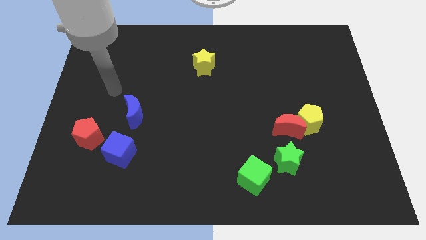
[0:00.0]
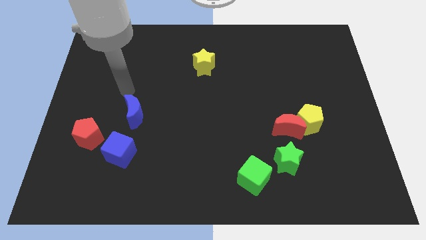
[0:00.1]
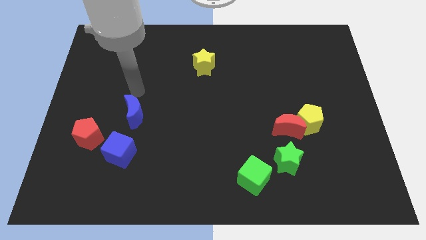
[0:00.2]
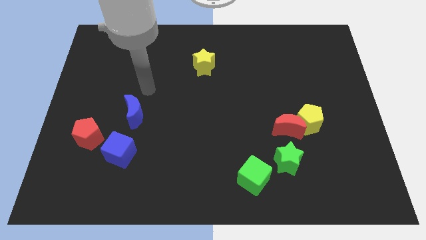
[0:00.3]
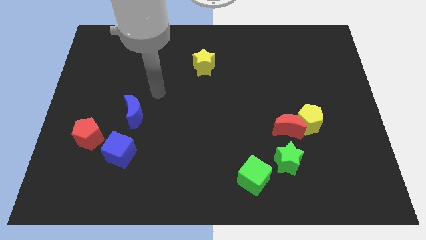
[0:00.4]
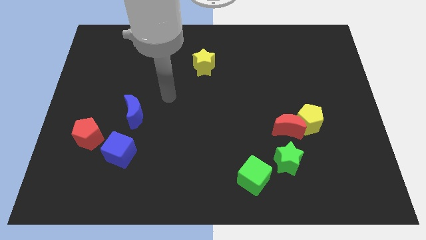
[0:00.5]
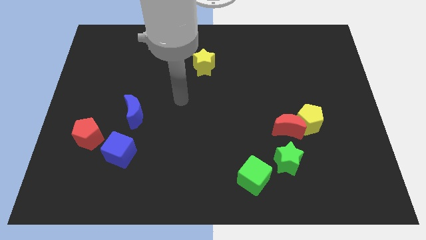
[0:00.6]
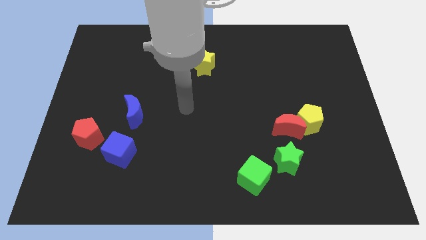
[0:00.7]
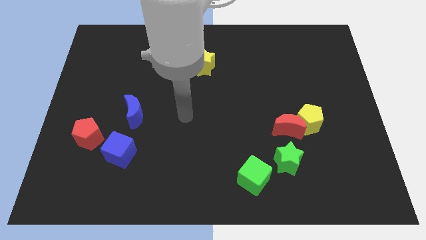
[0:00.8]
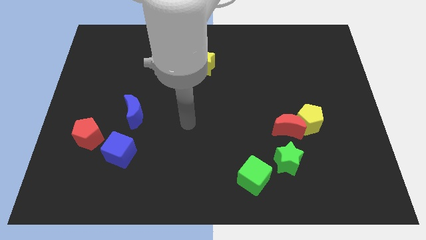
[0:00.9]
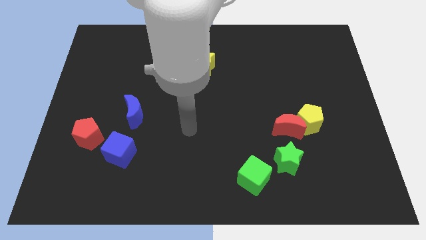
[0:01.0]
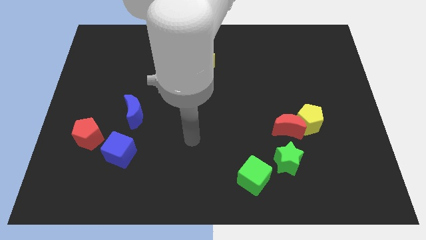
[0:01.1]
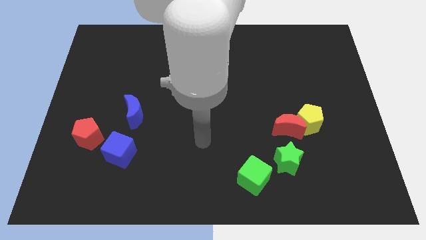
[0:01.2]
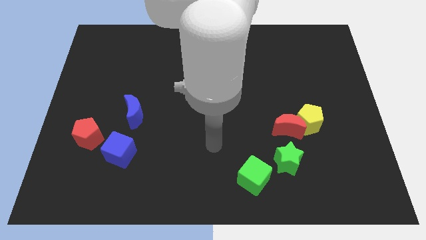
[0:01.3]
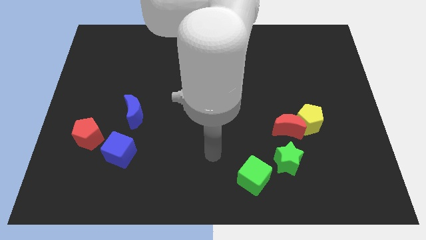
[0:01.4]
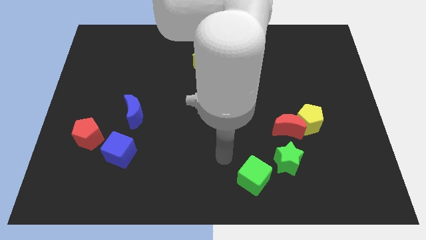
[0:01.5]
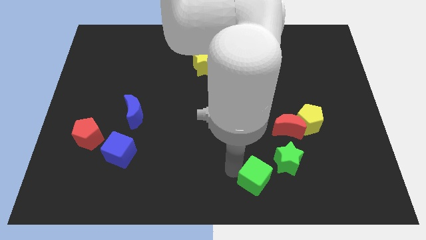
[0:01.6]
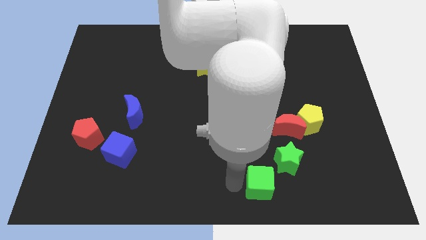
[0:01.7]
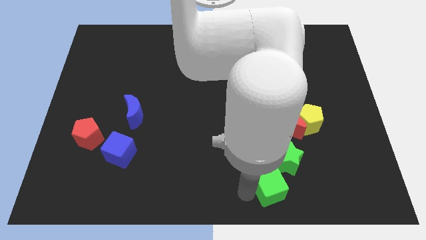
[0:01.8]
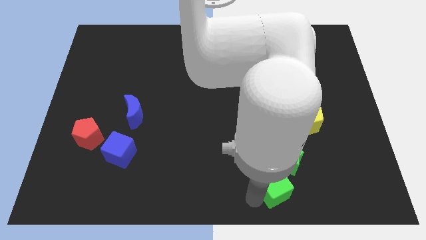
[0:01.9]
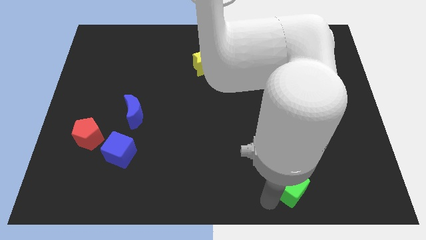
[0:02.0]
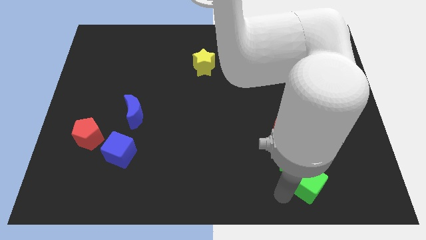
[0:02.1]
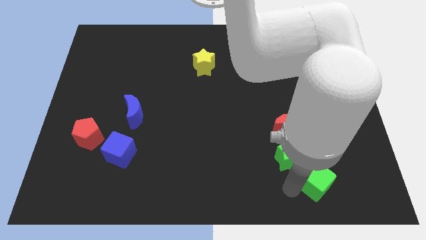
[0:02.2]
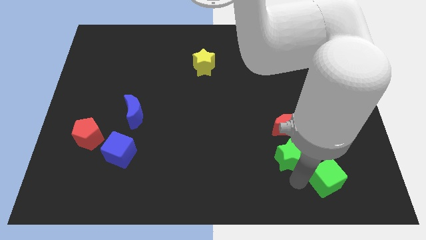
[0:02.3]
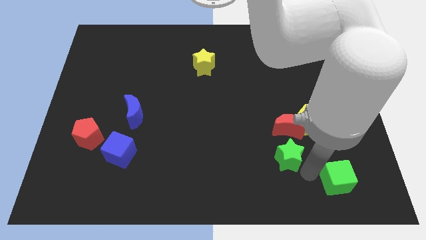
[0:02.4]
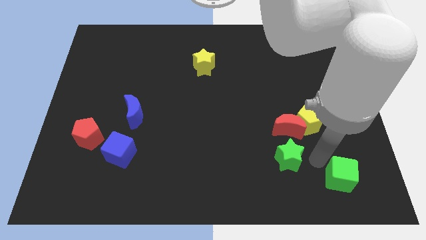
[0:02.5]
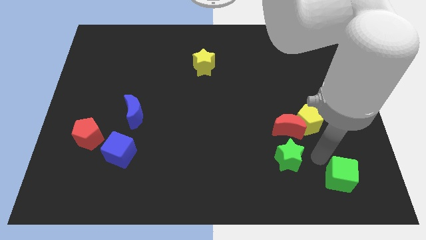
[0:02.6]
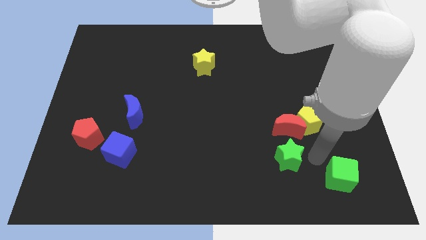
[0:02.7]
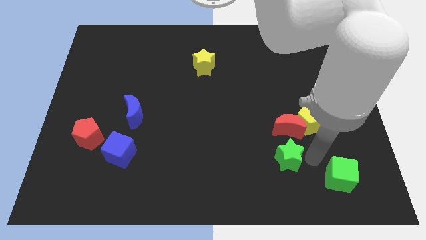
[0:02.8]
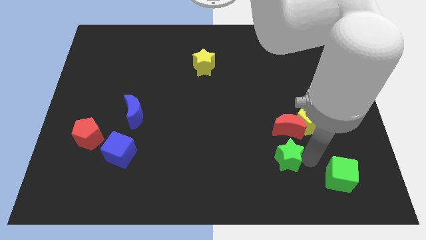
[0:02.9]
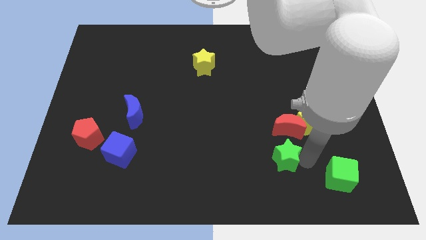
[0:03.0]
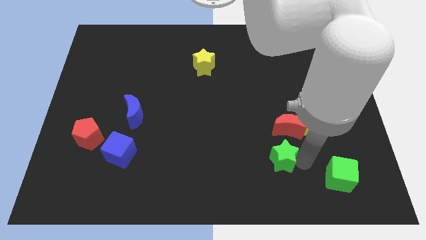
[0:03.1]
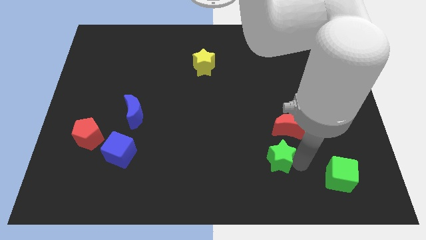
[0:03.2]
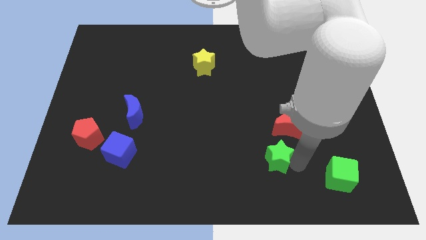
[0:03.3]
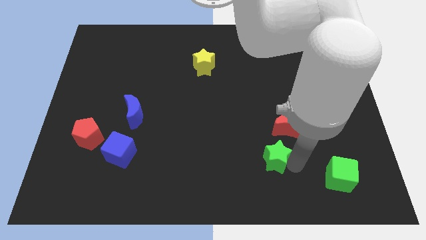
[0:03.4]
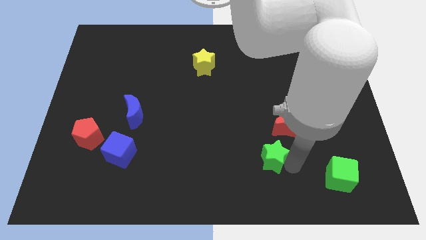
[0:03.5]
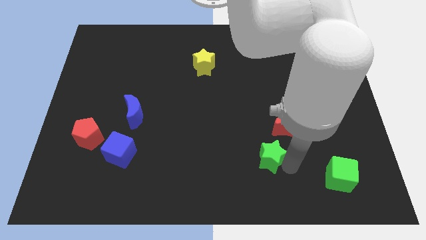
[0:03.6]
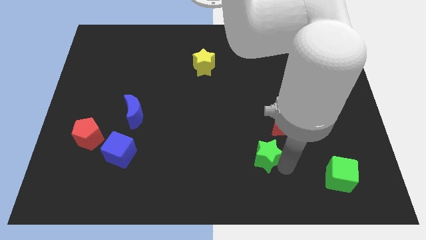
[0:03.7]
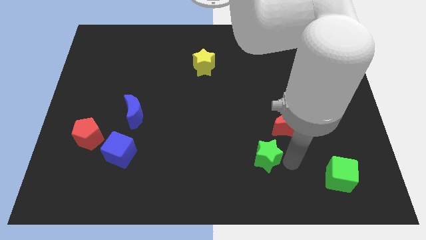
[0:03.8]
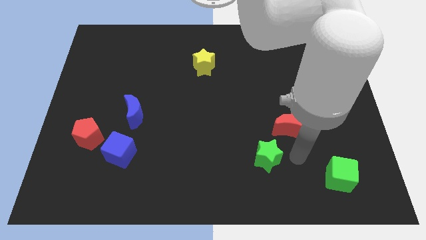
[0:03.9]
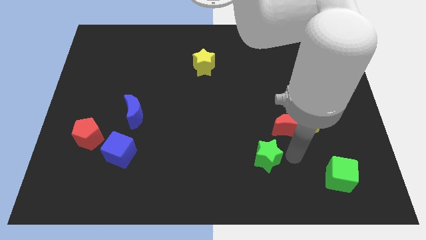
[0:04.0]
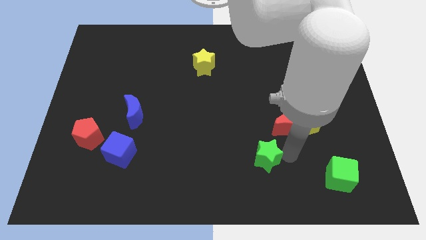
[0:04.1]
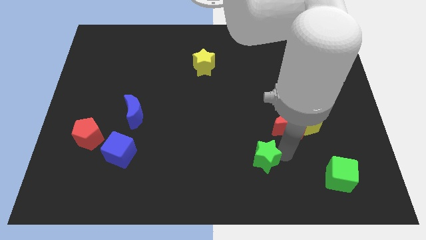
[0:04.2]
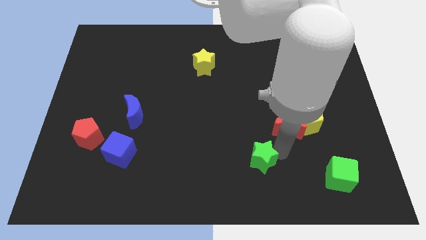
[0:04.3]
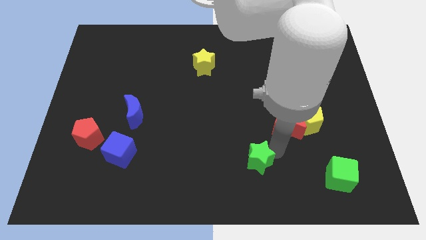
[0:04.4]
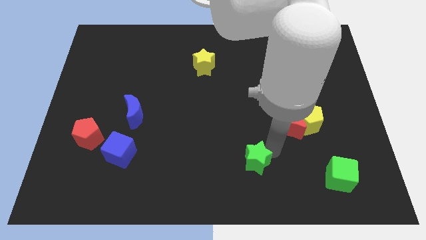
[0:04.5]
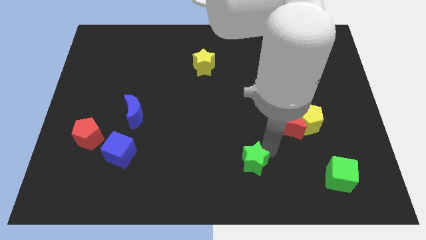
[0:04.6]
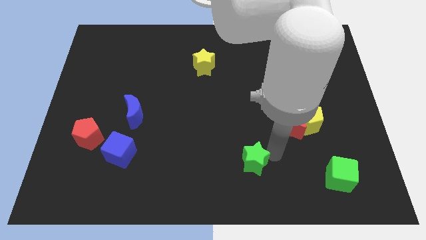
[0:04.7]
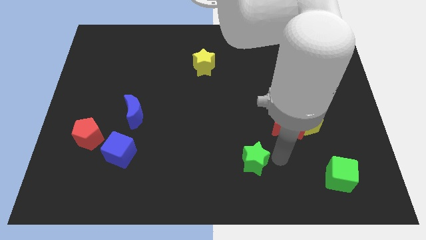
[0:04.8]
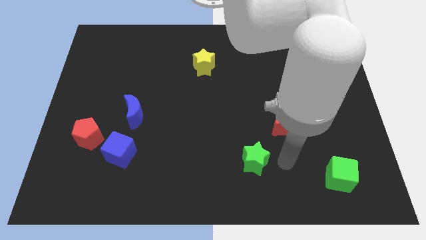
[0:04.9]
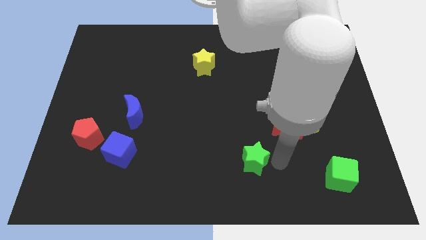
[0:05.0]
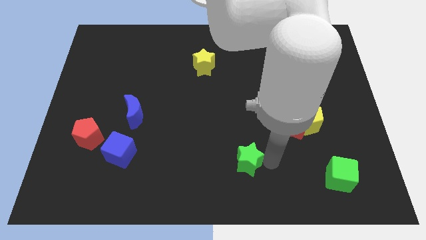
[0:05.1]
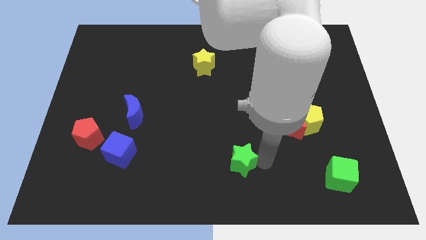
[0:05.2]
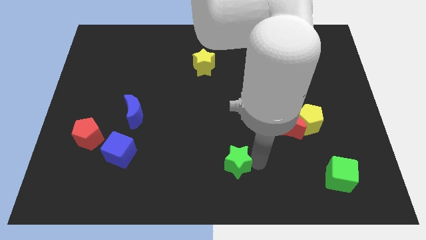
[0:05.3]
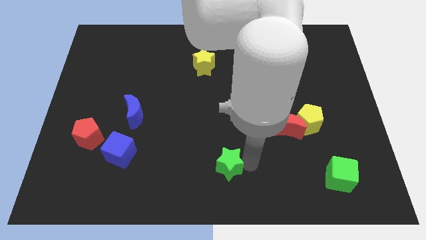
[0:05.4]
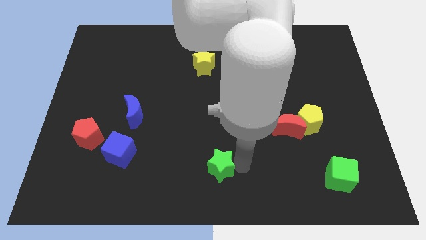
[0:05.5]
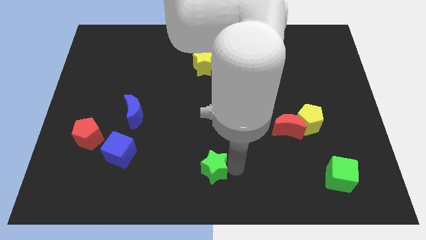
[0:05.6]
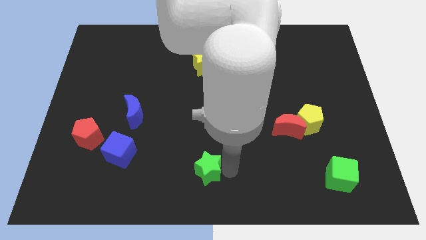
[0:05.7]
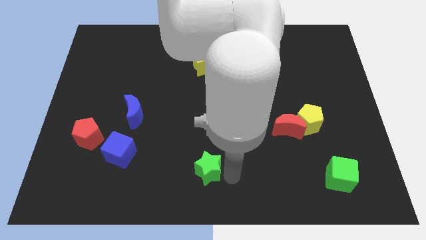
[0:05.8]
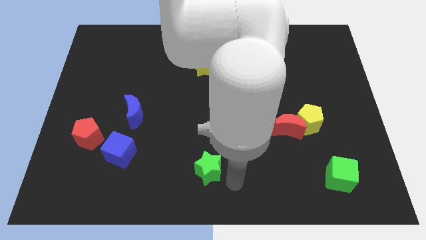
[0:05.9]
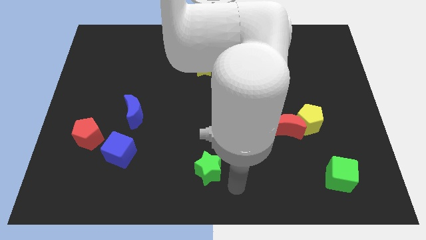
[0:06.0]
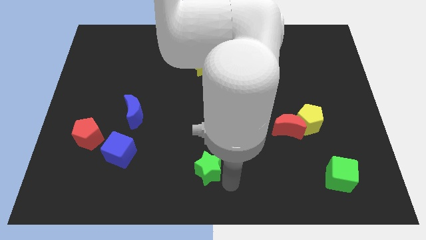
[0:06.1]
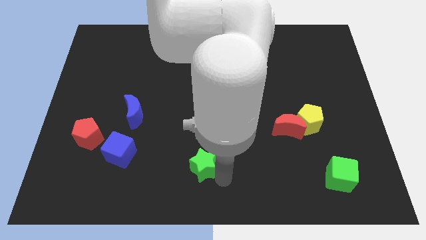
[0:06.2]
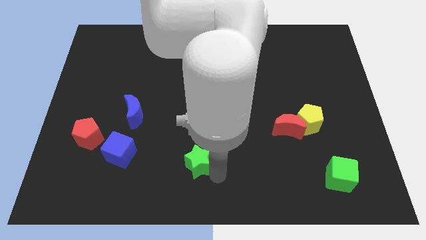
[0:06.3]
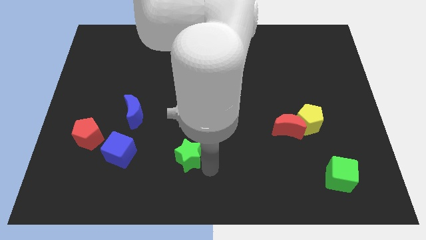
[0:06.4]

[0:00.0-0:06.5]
move the green star to the left

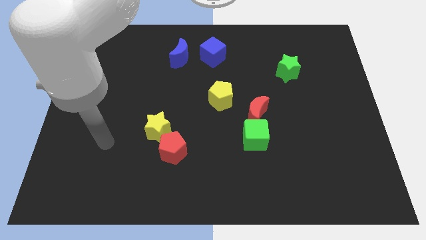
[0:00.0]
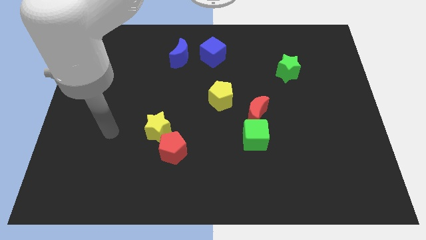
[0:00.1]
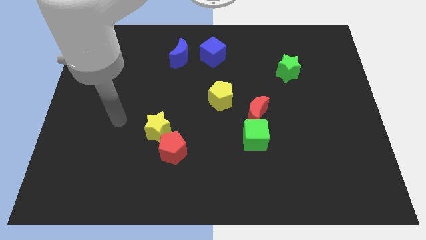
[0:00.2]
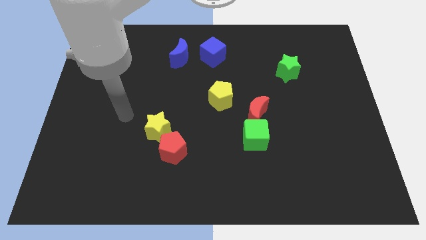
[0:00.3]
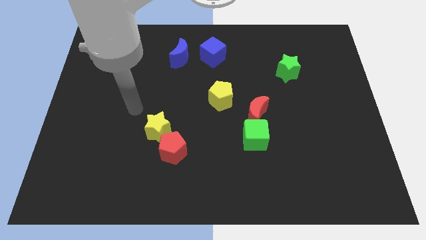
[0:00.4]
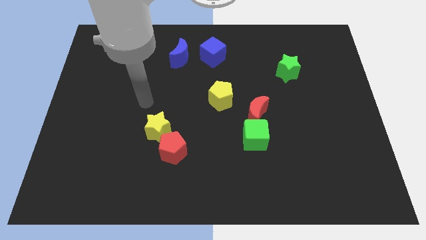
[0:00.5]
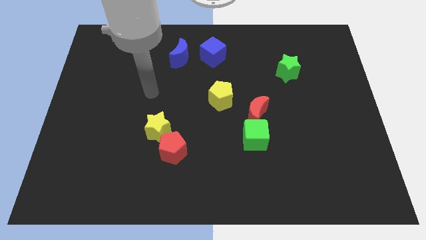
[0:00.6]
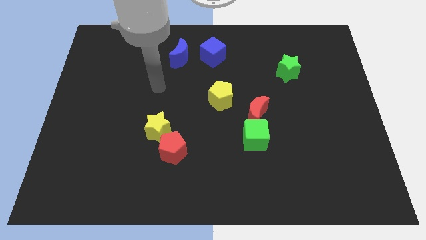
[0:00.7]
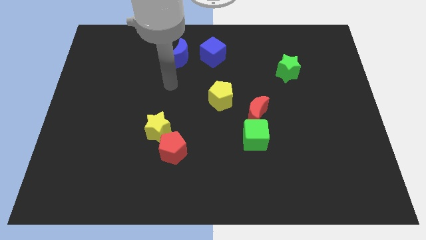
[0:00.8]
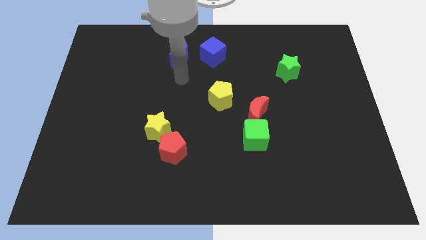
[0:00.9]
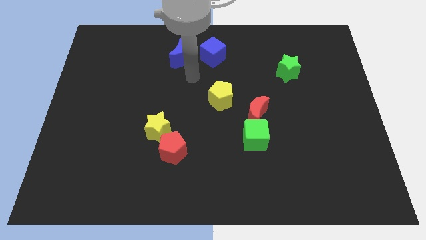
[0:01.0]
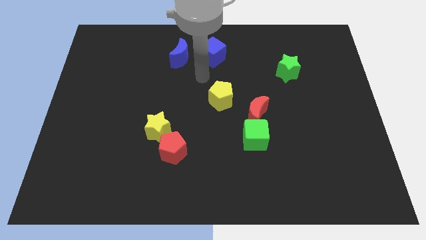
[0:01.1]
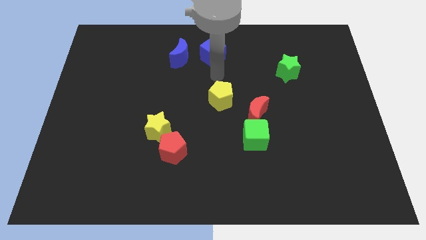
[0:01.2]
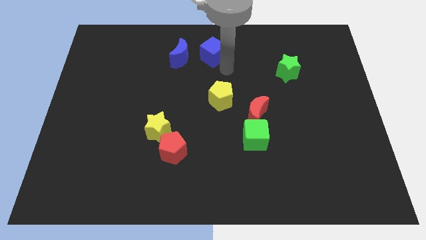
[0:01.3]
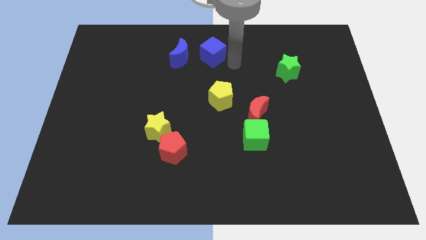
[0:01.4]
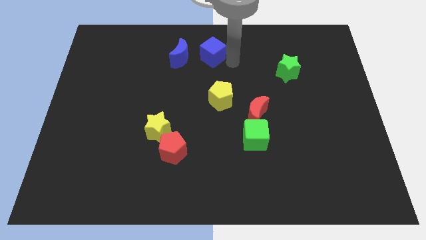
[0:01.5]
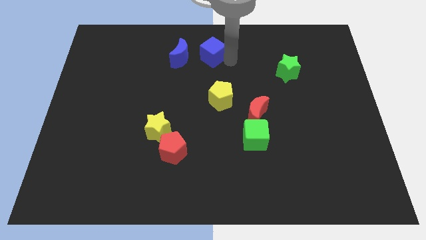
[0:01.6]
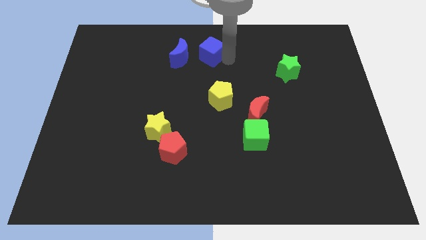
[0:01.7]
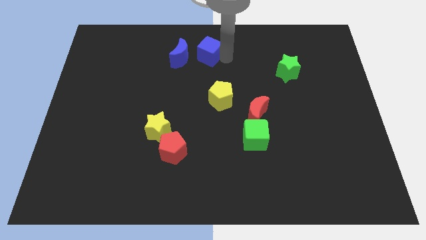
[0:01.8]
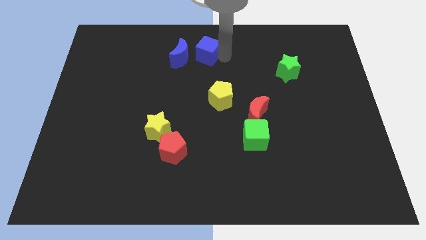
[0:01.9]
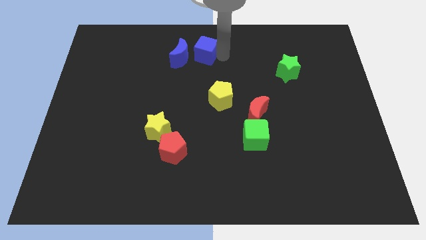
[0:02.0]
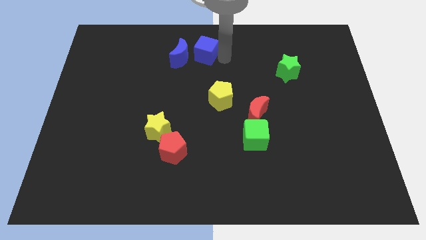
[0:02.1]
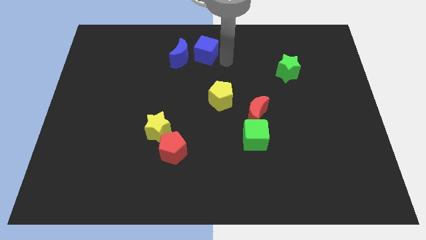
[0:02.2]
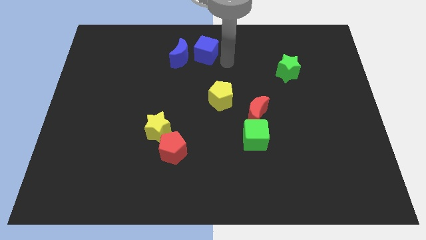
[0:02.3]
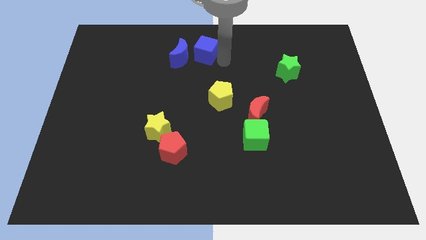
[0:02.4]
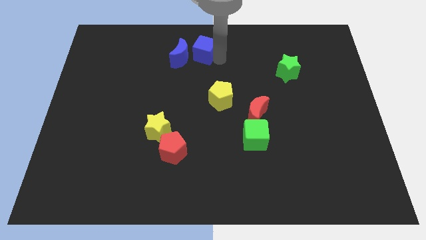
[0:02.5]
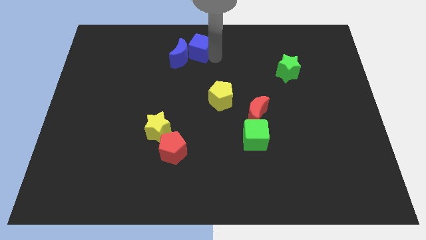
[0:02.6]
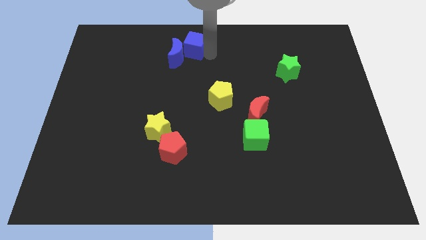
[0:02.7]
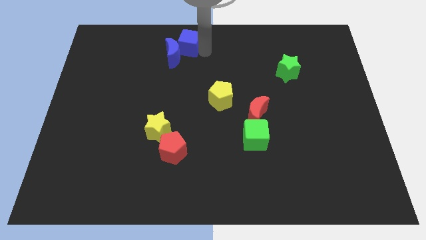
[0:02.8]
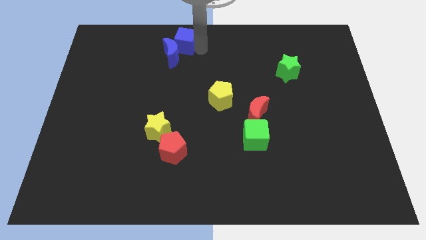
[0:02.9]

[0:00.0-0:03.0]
slide the blue cube left a little
